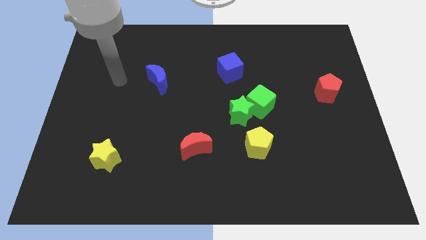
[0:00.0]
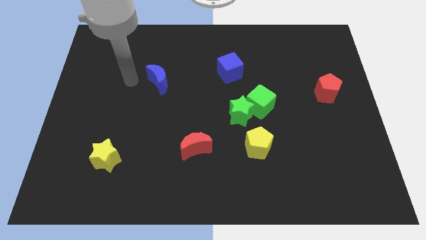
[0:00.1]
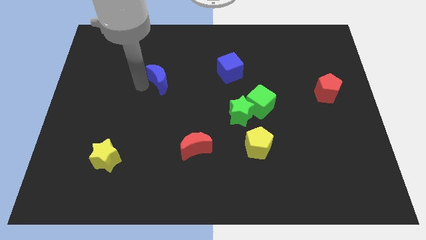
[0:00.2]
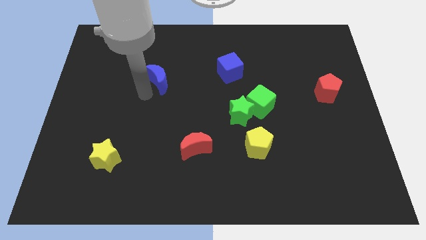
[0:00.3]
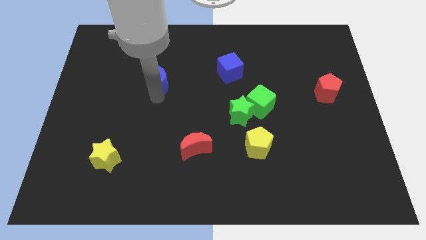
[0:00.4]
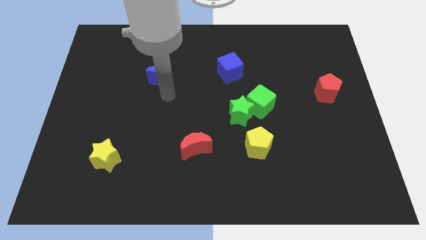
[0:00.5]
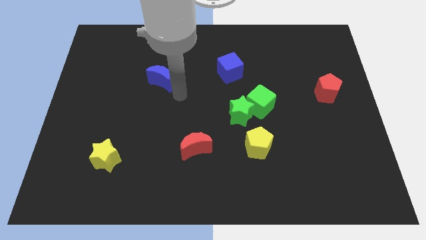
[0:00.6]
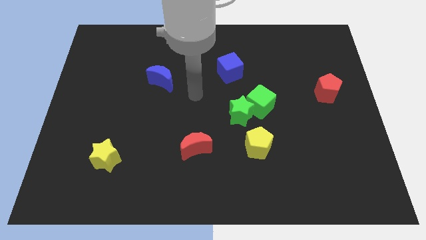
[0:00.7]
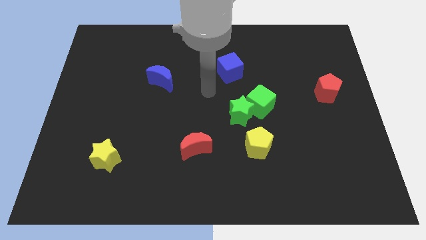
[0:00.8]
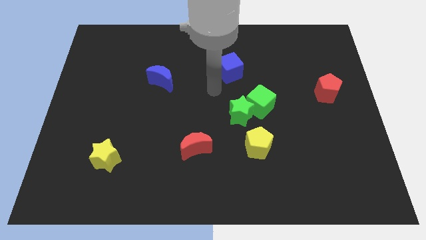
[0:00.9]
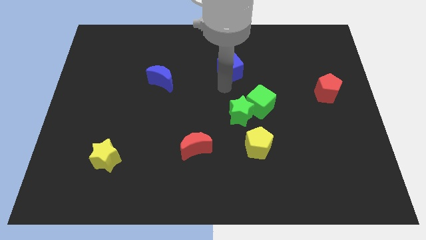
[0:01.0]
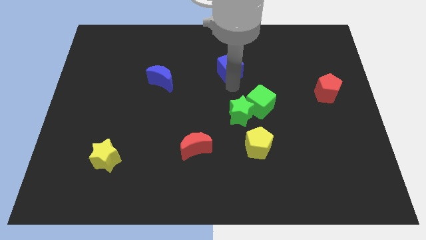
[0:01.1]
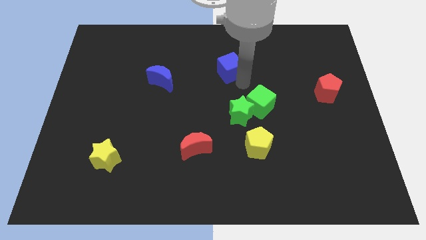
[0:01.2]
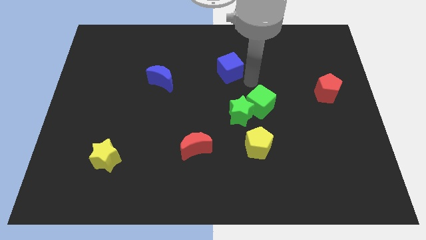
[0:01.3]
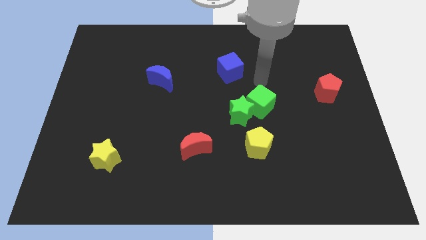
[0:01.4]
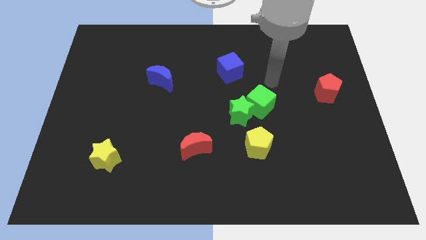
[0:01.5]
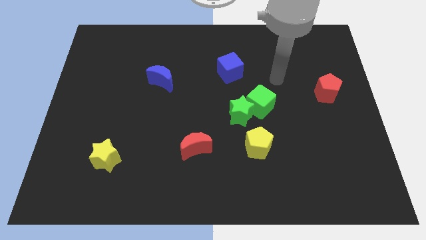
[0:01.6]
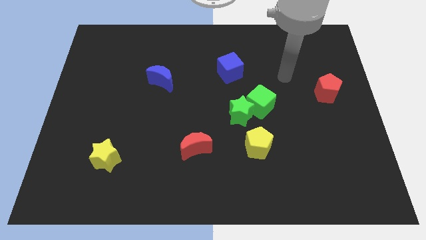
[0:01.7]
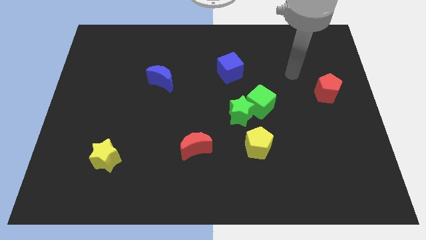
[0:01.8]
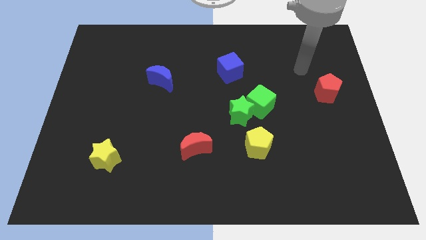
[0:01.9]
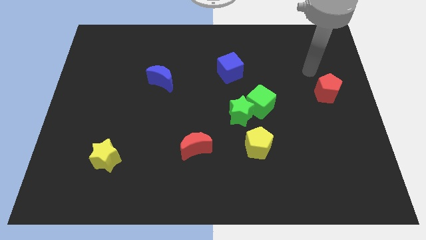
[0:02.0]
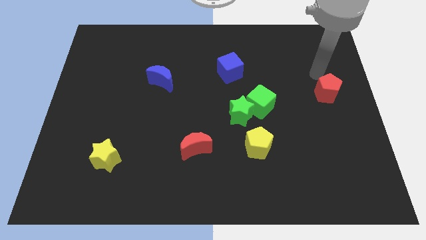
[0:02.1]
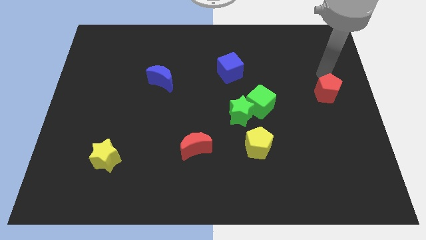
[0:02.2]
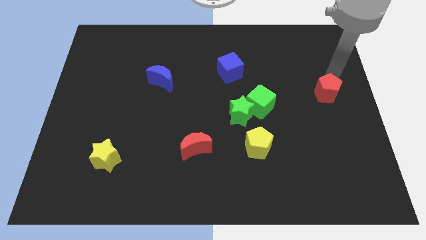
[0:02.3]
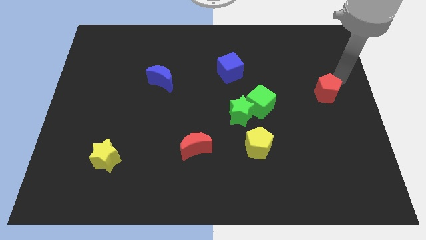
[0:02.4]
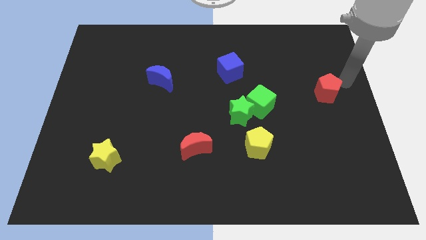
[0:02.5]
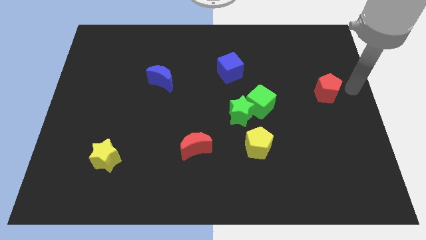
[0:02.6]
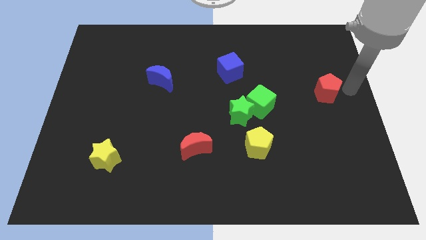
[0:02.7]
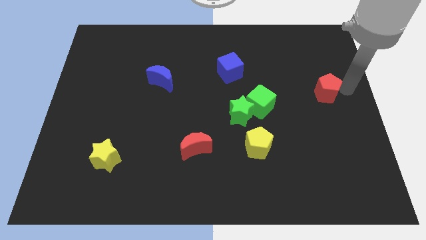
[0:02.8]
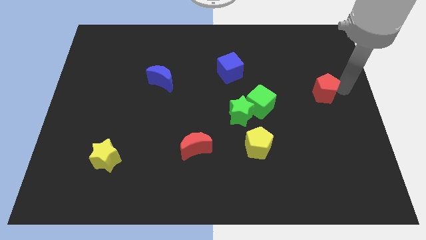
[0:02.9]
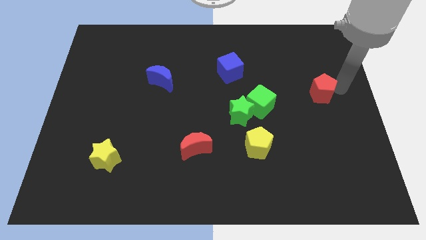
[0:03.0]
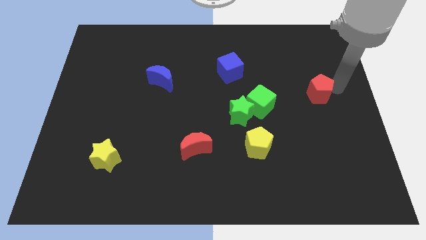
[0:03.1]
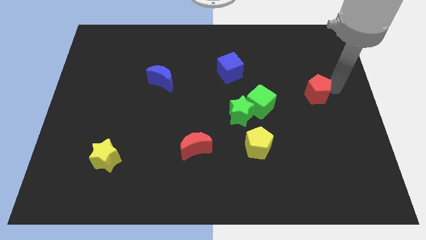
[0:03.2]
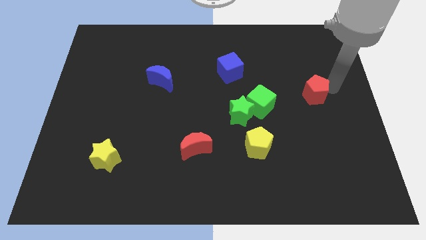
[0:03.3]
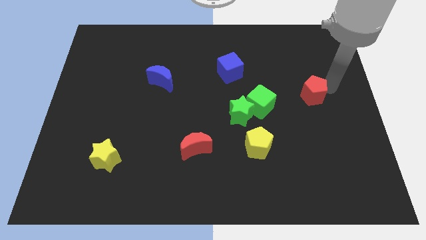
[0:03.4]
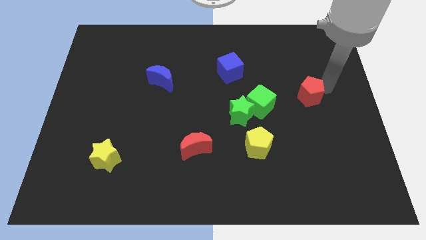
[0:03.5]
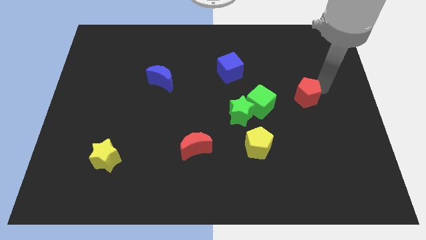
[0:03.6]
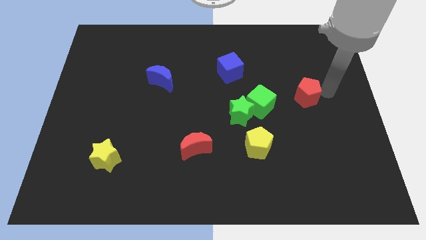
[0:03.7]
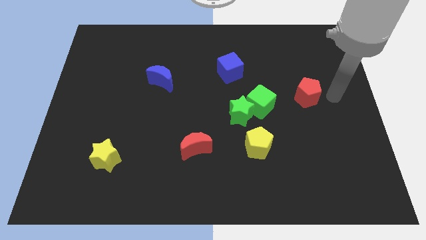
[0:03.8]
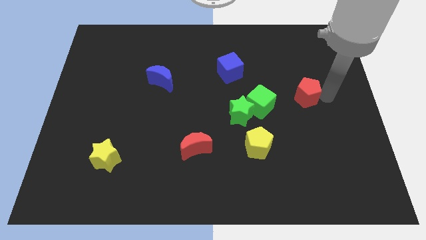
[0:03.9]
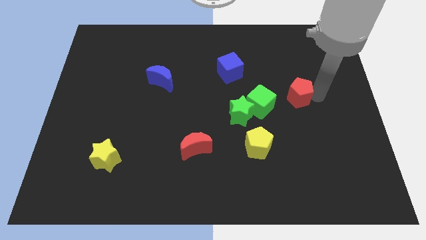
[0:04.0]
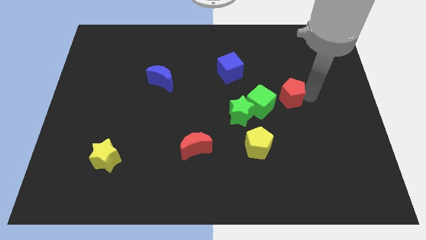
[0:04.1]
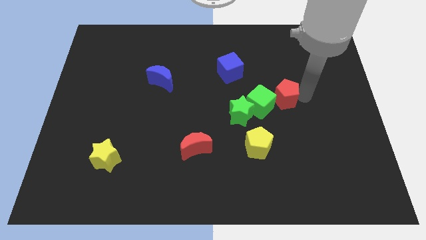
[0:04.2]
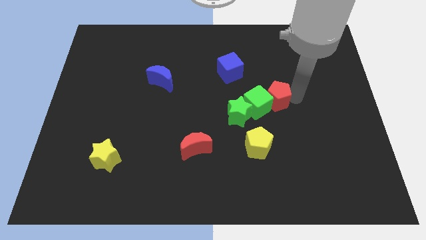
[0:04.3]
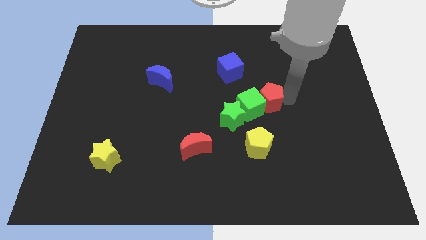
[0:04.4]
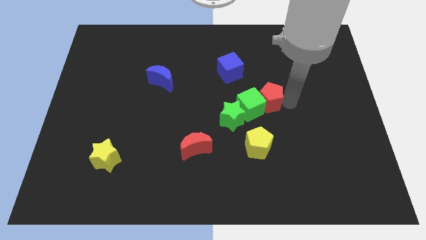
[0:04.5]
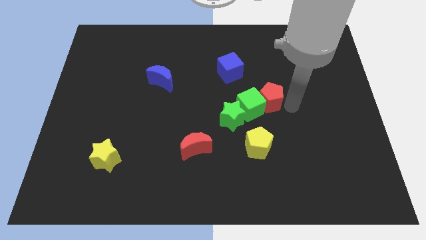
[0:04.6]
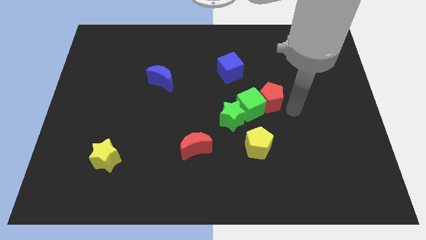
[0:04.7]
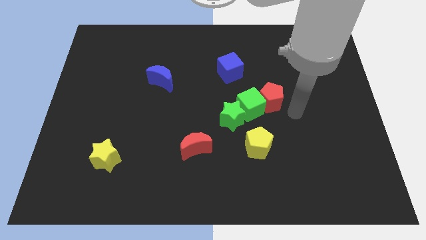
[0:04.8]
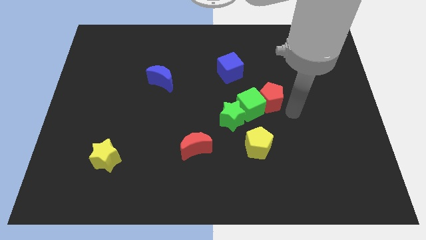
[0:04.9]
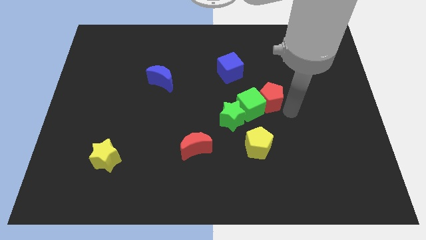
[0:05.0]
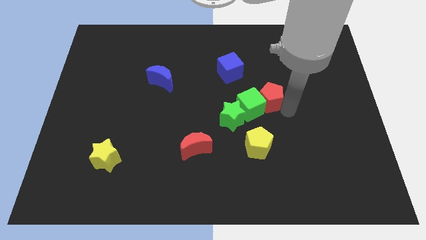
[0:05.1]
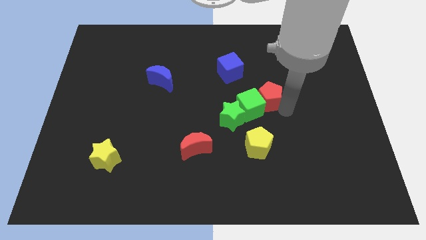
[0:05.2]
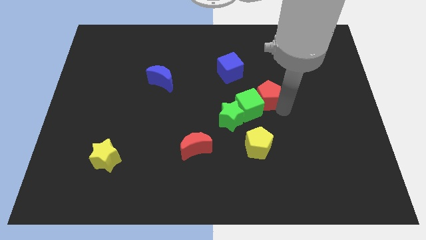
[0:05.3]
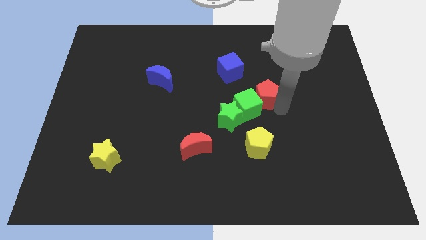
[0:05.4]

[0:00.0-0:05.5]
slide the red pentagon to the center of the board

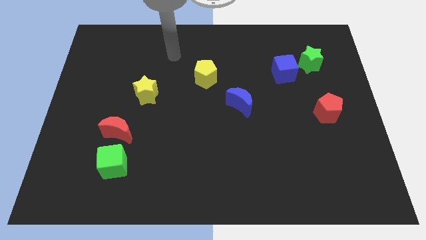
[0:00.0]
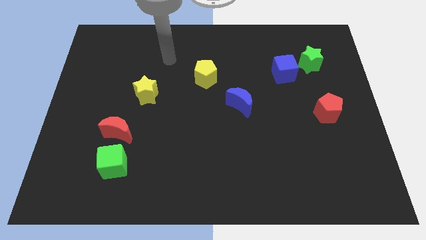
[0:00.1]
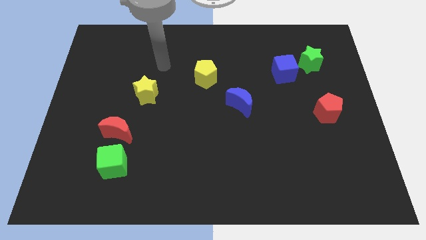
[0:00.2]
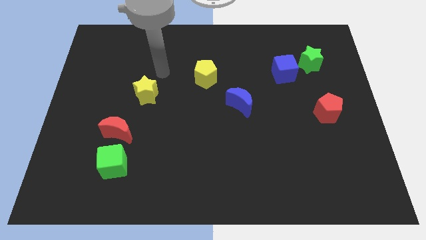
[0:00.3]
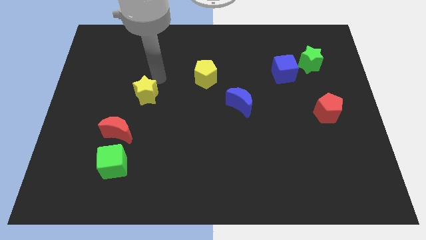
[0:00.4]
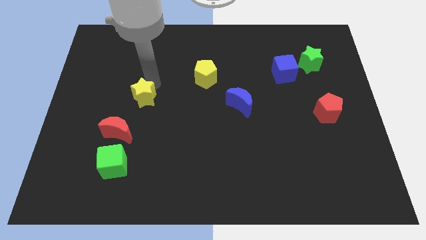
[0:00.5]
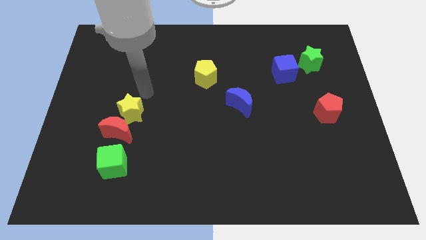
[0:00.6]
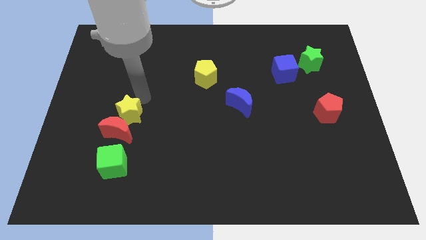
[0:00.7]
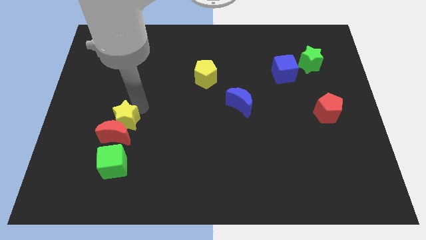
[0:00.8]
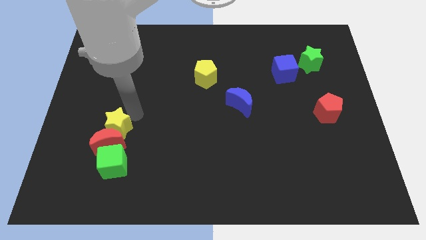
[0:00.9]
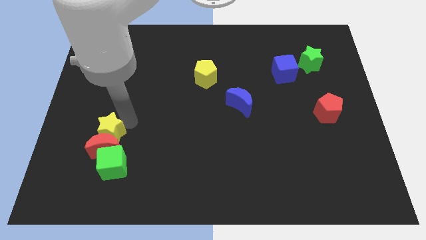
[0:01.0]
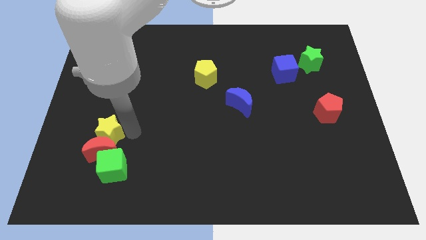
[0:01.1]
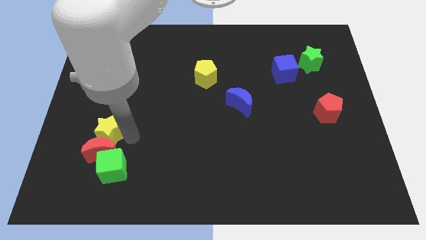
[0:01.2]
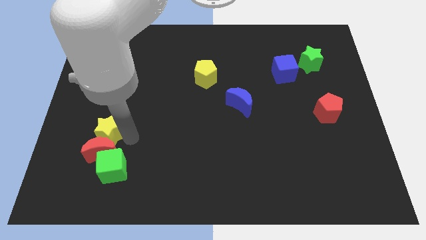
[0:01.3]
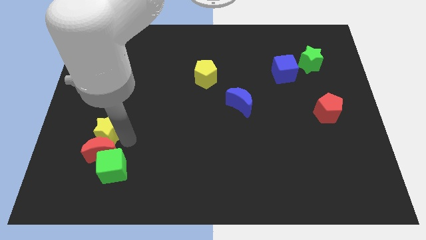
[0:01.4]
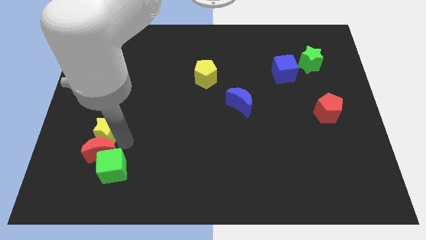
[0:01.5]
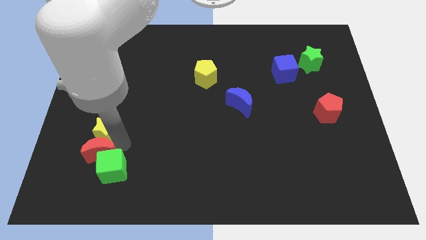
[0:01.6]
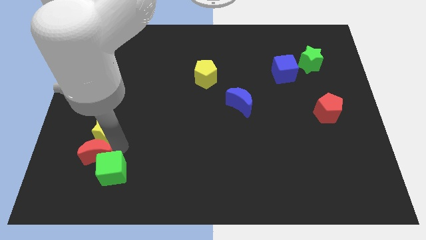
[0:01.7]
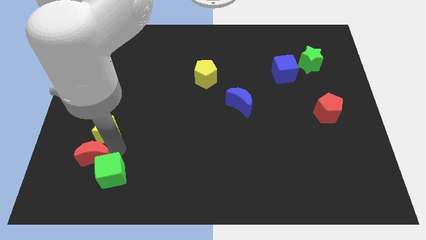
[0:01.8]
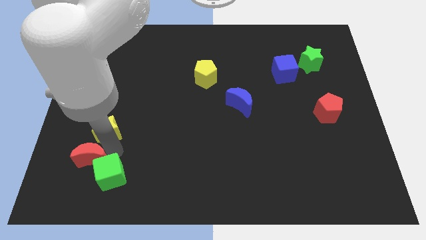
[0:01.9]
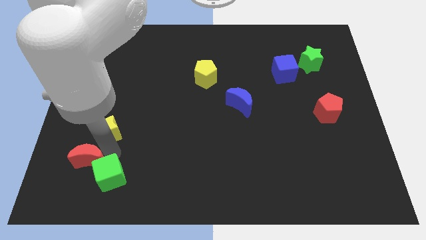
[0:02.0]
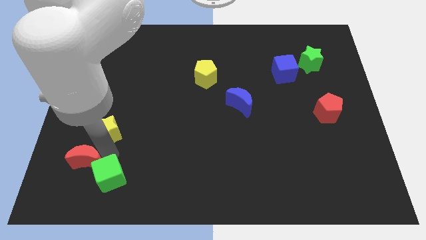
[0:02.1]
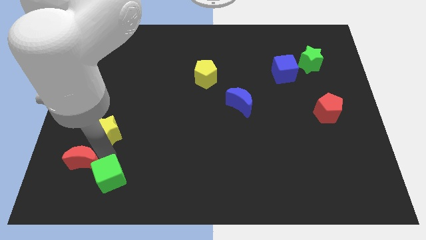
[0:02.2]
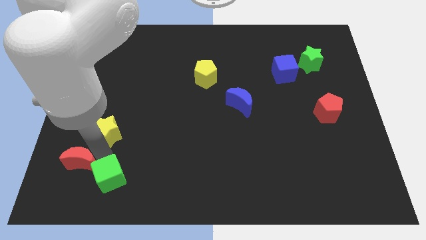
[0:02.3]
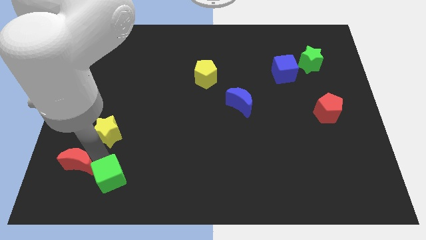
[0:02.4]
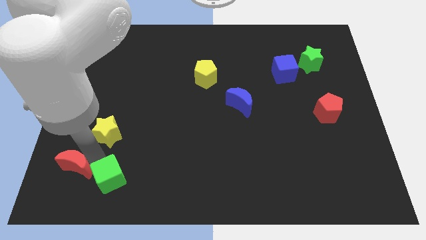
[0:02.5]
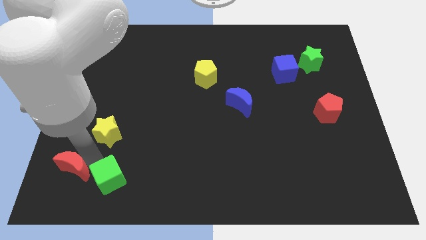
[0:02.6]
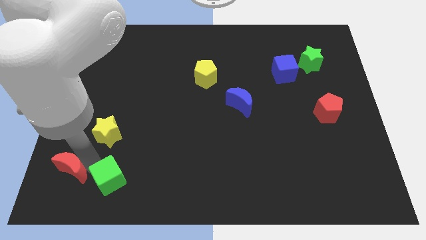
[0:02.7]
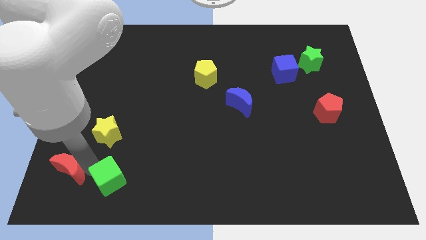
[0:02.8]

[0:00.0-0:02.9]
move the red moon to the bottom left of the board
